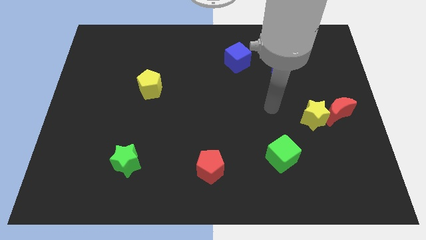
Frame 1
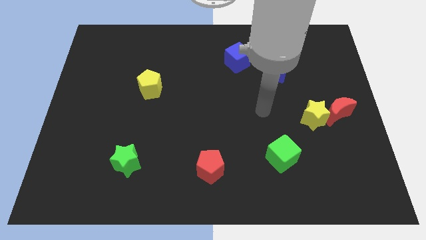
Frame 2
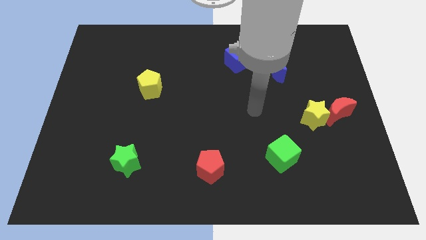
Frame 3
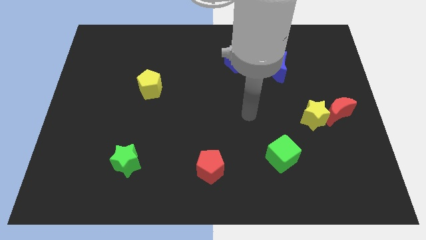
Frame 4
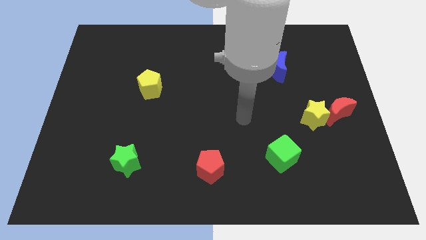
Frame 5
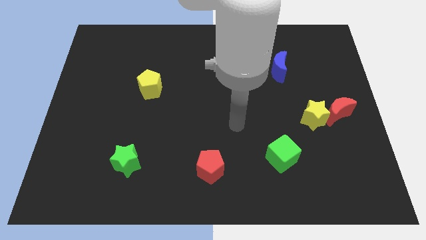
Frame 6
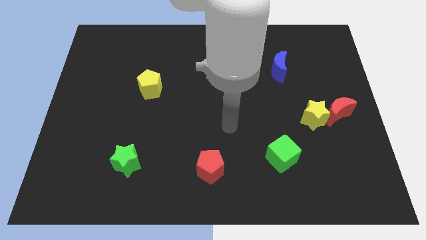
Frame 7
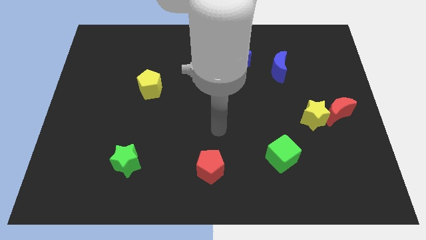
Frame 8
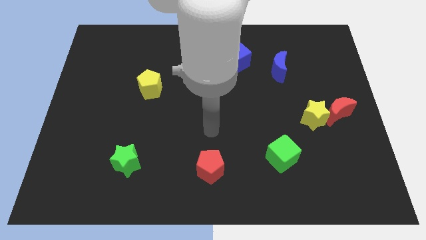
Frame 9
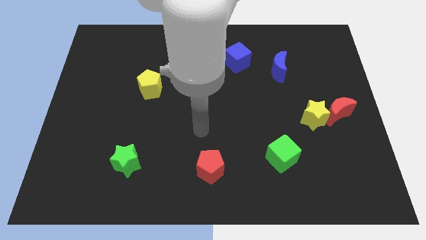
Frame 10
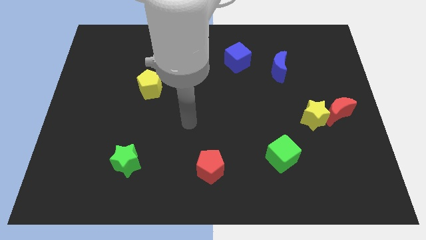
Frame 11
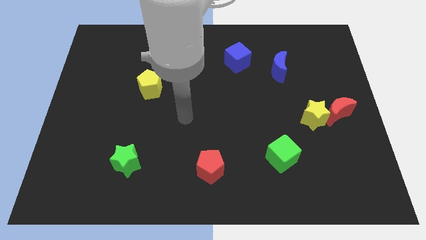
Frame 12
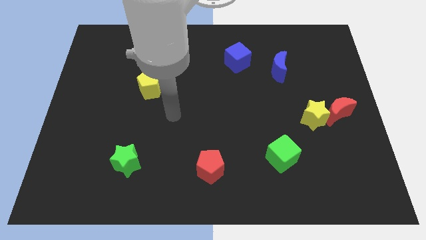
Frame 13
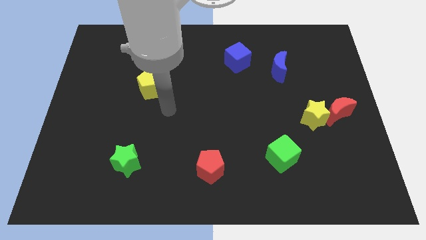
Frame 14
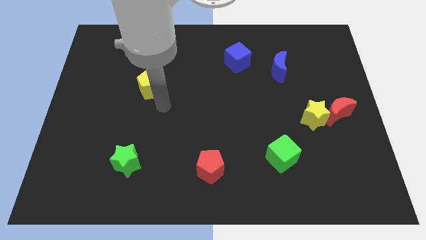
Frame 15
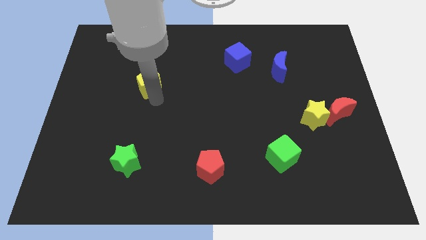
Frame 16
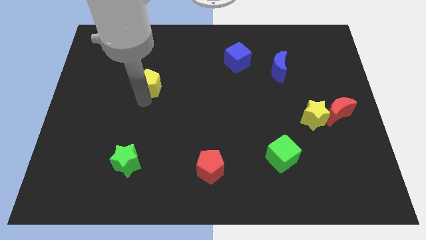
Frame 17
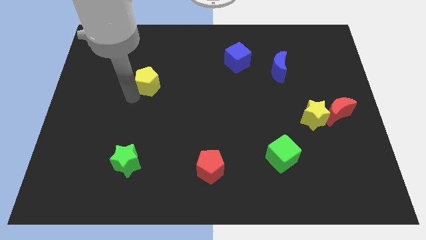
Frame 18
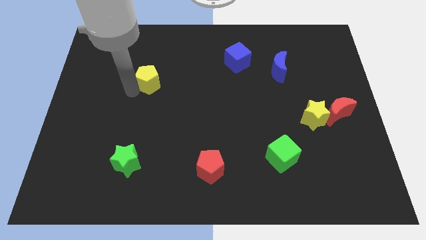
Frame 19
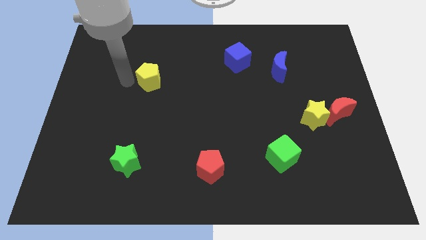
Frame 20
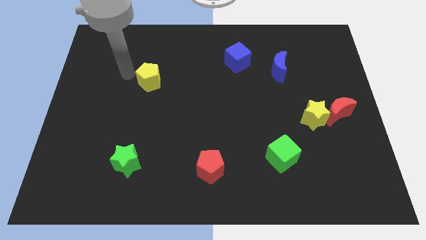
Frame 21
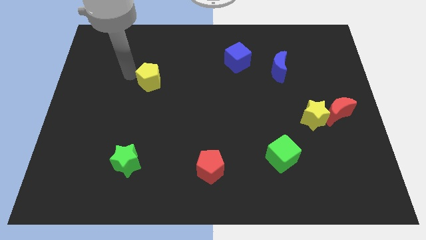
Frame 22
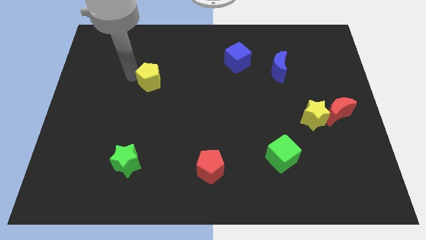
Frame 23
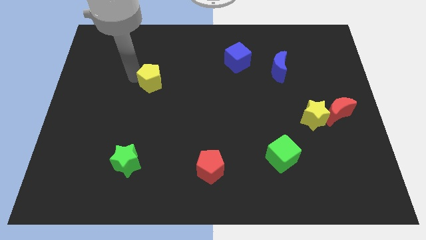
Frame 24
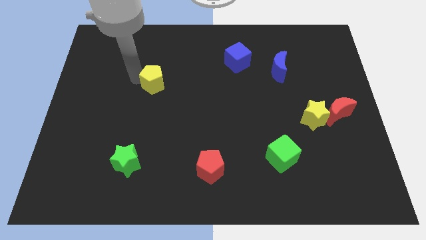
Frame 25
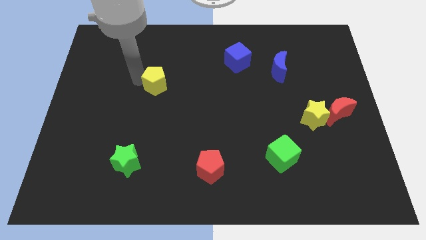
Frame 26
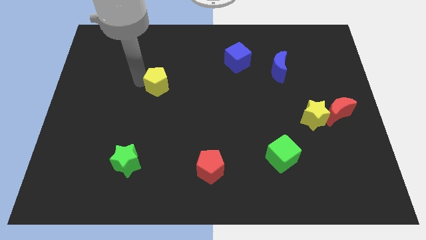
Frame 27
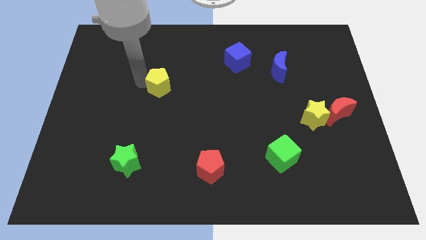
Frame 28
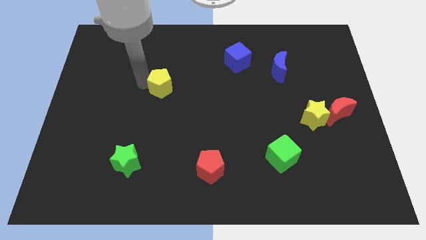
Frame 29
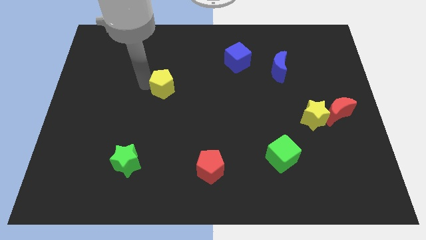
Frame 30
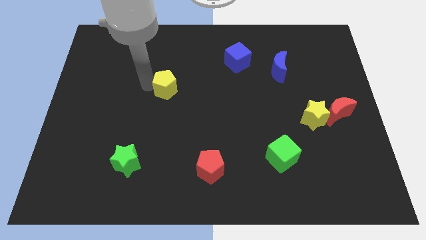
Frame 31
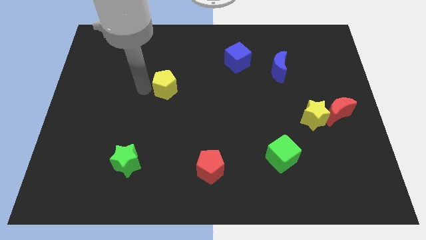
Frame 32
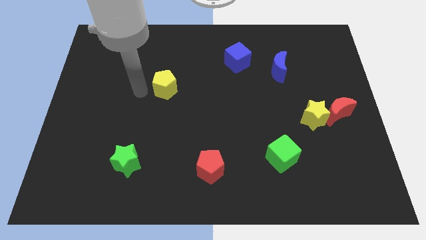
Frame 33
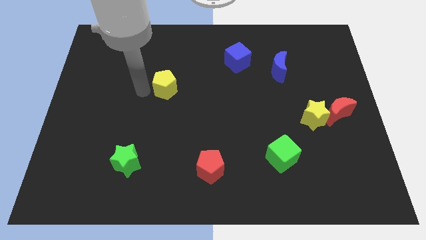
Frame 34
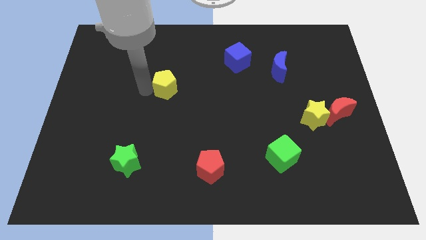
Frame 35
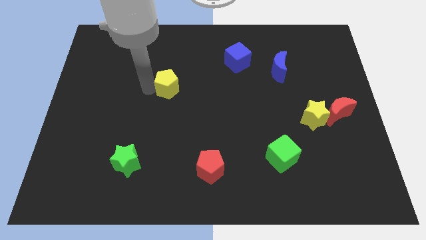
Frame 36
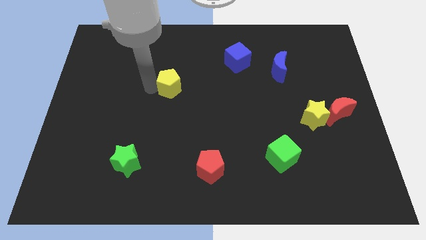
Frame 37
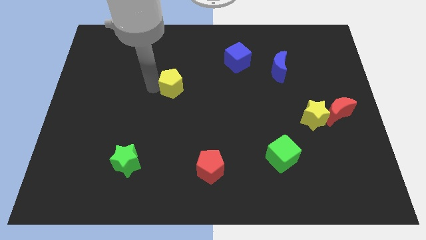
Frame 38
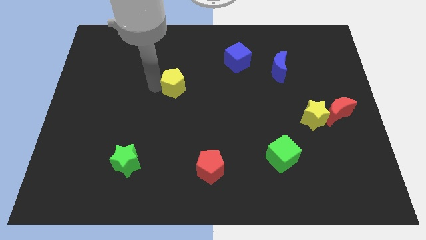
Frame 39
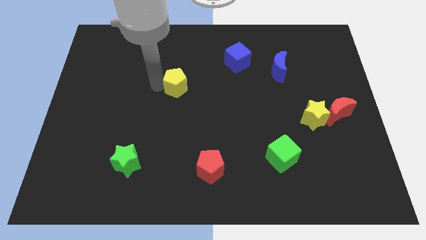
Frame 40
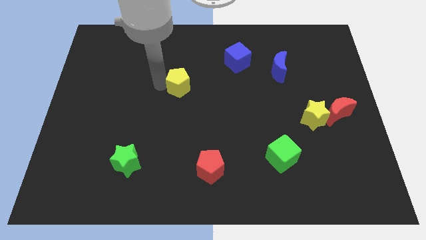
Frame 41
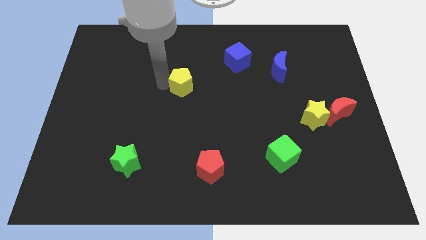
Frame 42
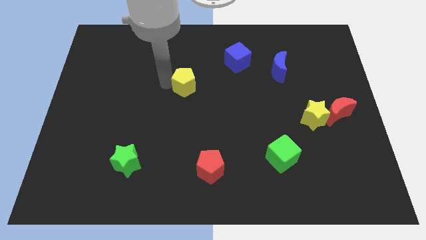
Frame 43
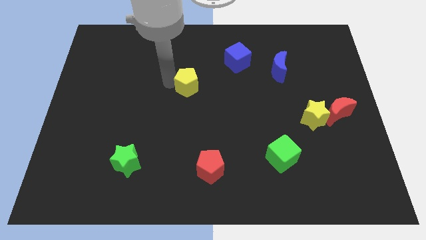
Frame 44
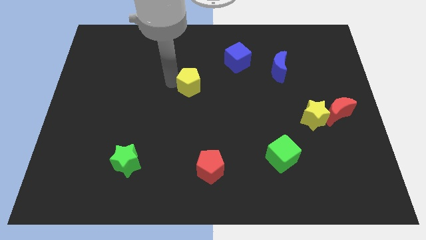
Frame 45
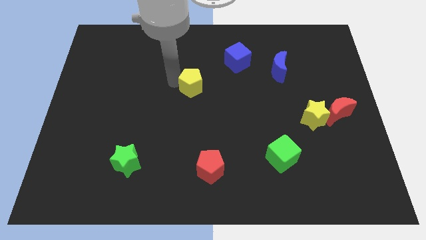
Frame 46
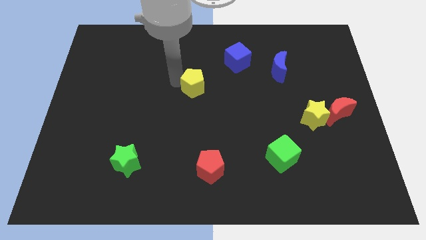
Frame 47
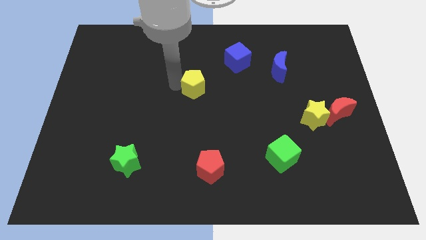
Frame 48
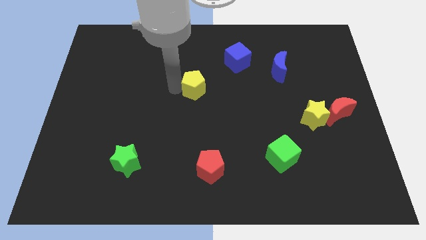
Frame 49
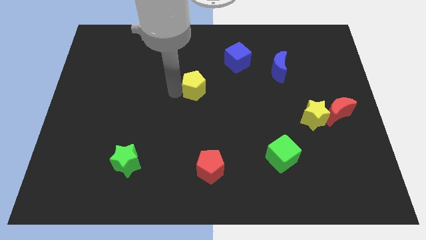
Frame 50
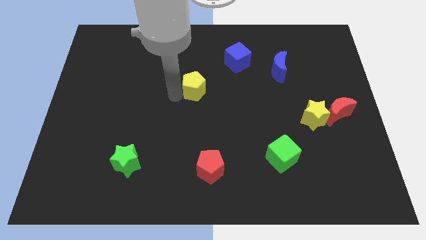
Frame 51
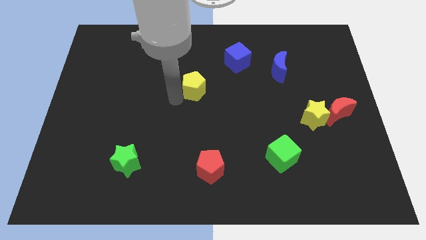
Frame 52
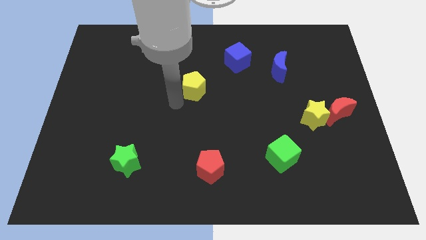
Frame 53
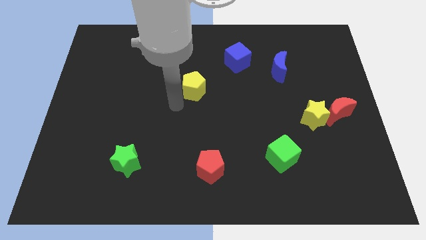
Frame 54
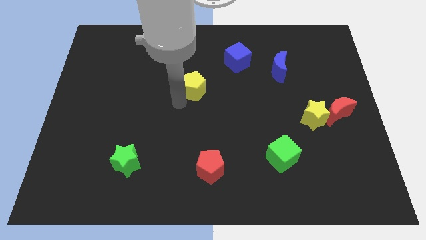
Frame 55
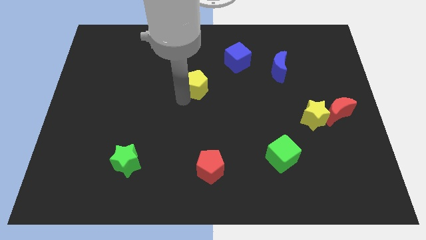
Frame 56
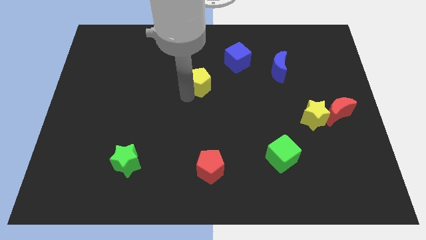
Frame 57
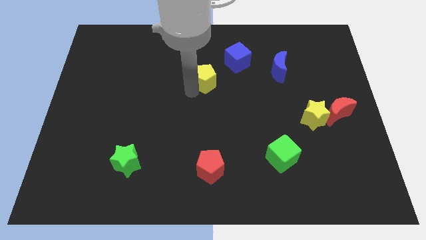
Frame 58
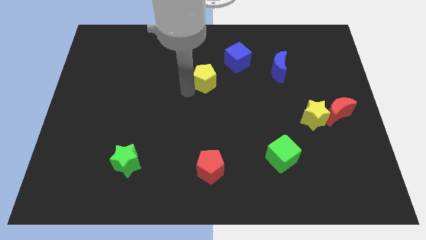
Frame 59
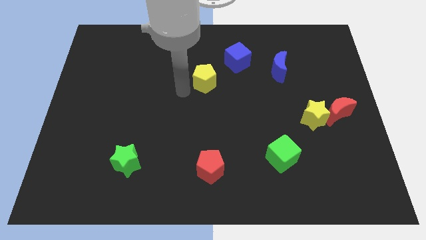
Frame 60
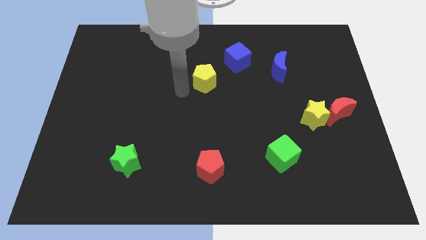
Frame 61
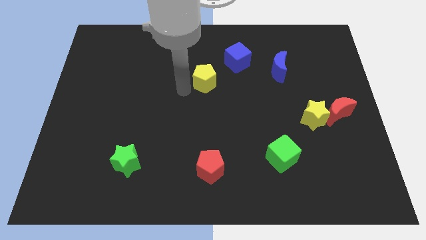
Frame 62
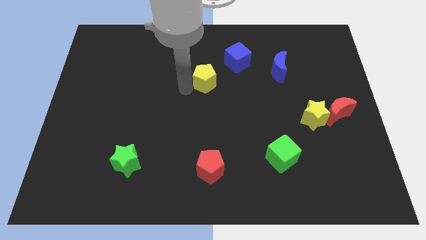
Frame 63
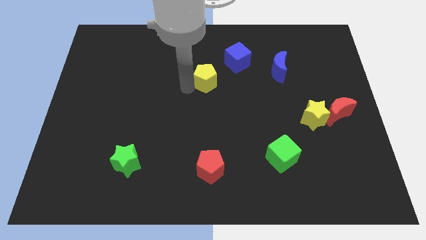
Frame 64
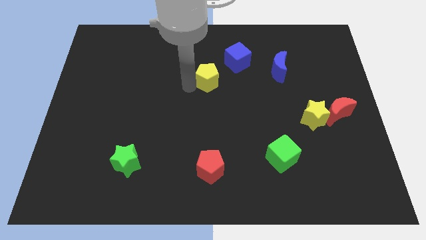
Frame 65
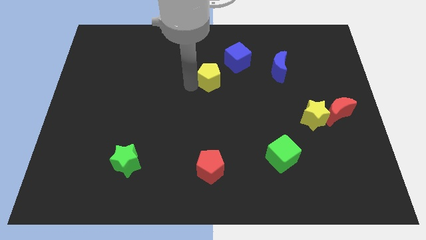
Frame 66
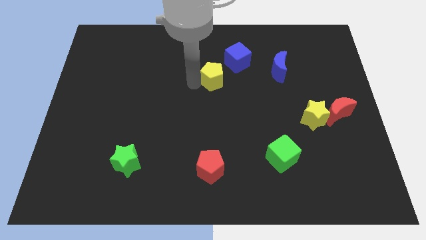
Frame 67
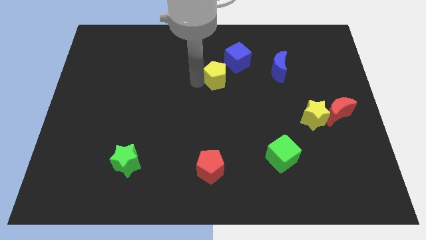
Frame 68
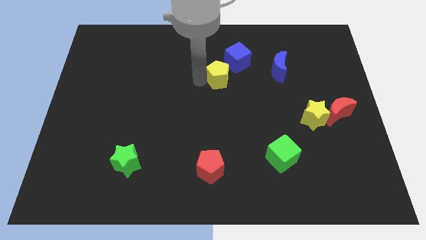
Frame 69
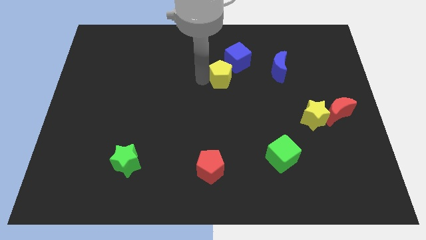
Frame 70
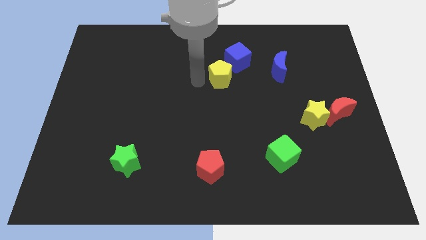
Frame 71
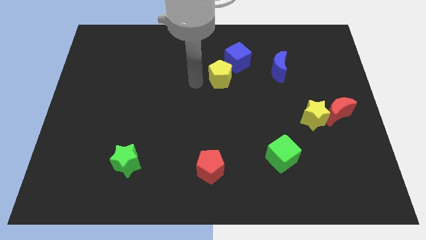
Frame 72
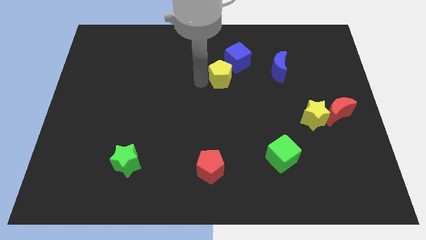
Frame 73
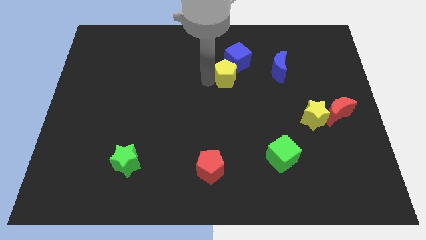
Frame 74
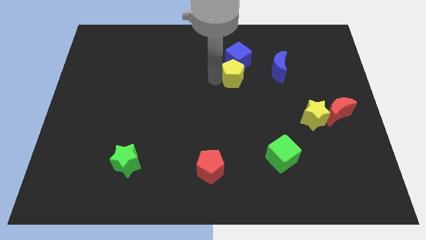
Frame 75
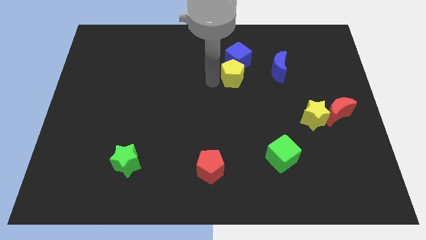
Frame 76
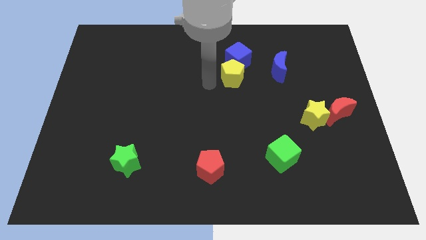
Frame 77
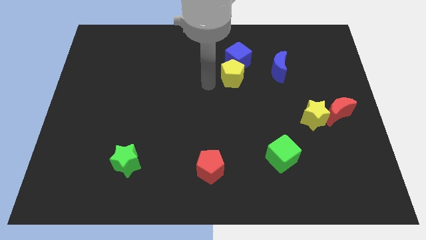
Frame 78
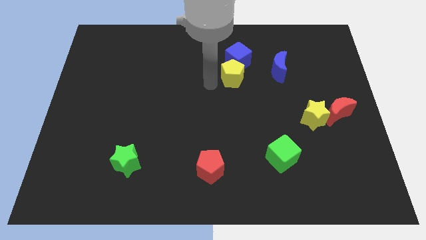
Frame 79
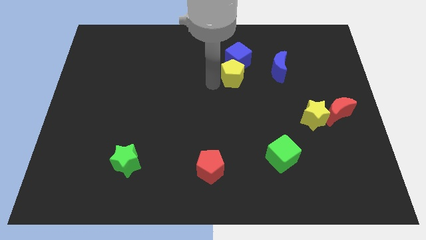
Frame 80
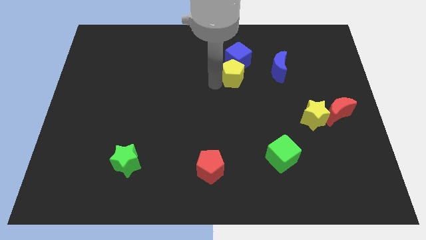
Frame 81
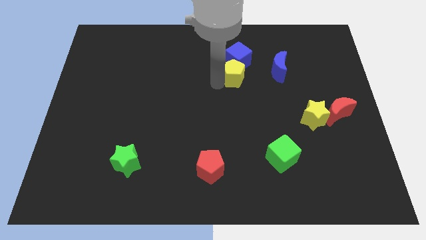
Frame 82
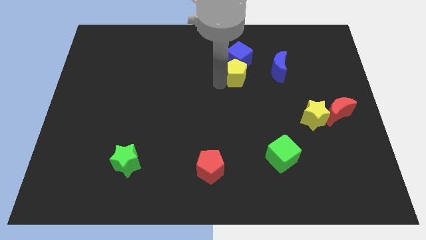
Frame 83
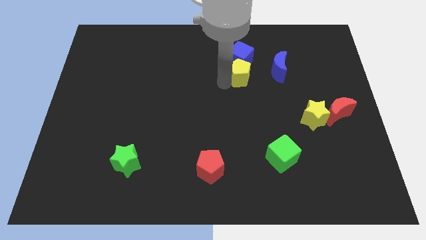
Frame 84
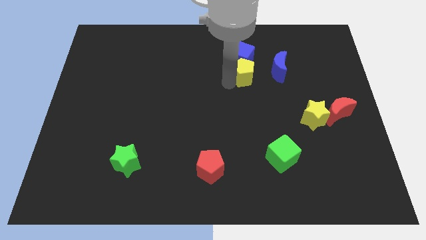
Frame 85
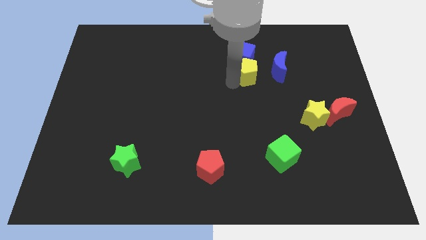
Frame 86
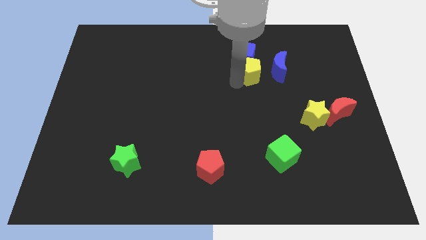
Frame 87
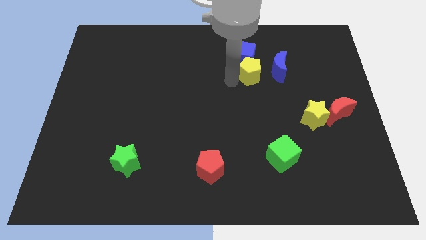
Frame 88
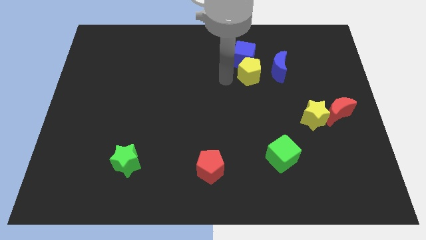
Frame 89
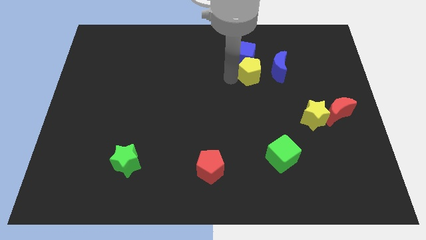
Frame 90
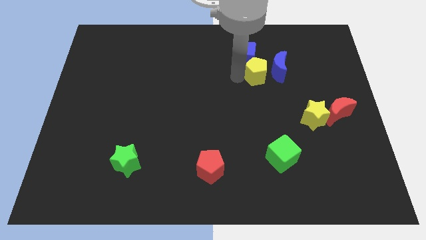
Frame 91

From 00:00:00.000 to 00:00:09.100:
put the yellow pentagon towards the blue moon
